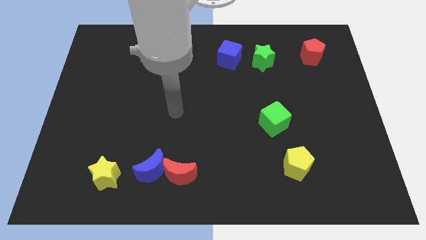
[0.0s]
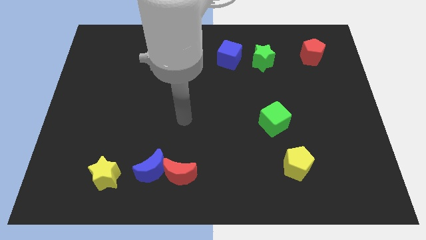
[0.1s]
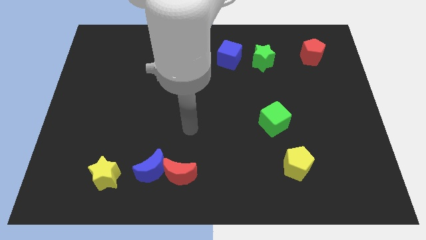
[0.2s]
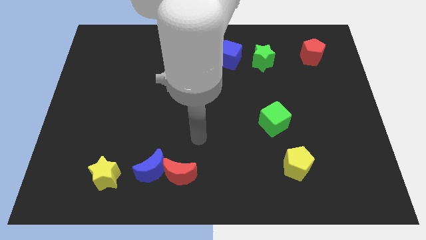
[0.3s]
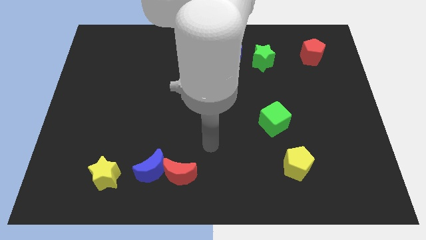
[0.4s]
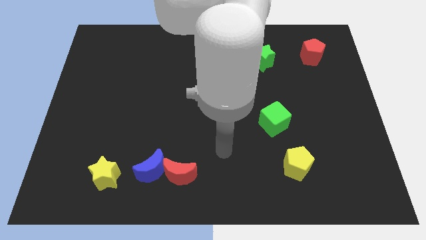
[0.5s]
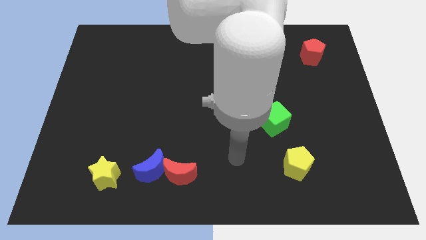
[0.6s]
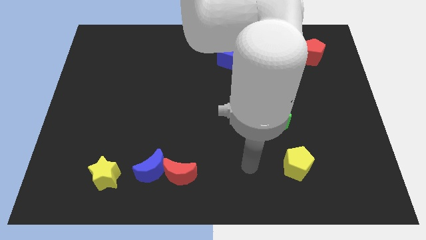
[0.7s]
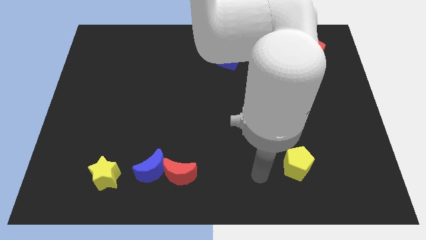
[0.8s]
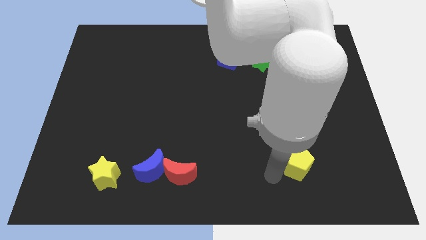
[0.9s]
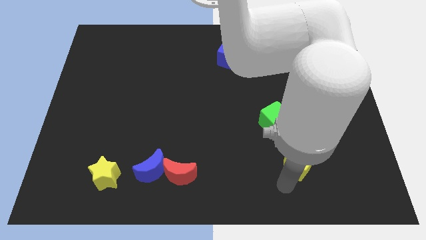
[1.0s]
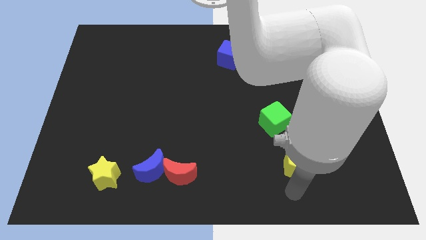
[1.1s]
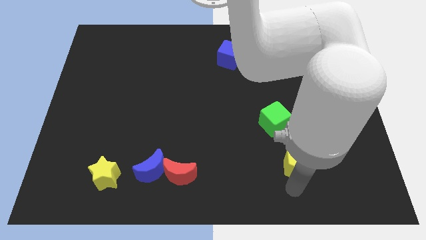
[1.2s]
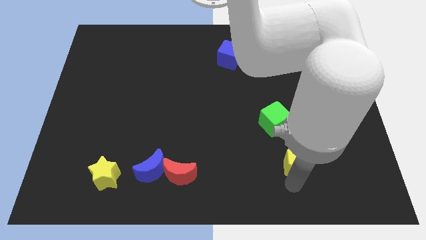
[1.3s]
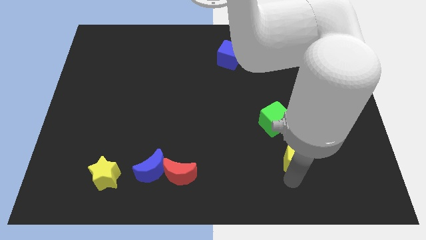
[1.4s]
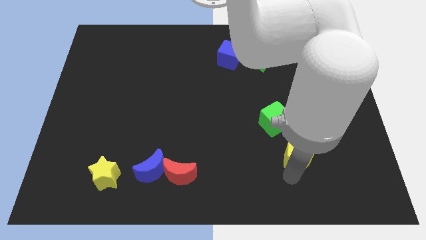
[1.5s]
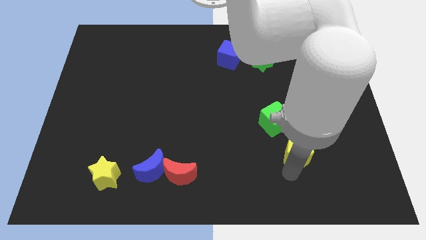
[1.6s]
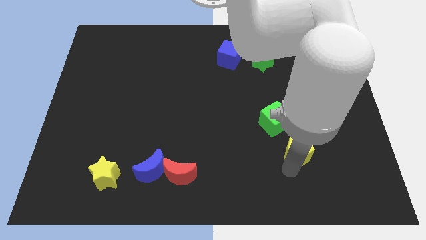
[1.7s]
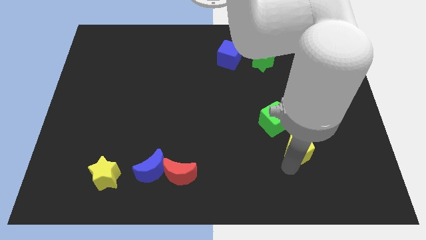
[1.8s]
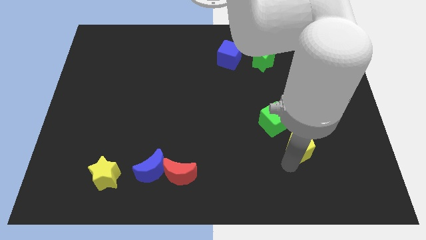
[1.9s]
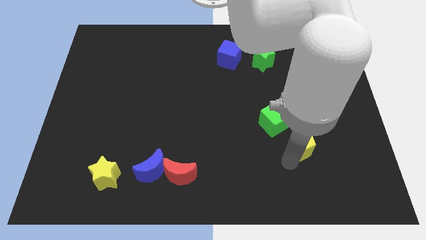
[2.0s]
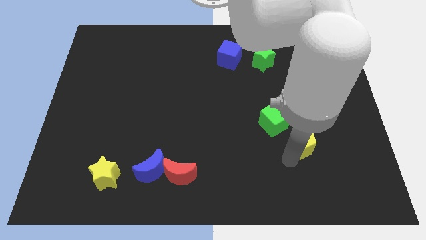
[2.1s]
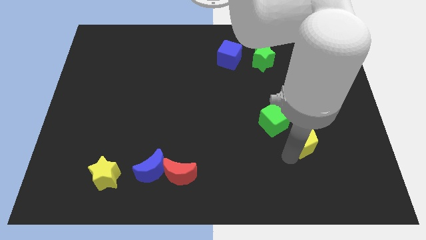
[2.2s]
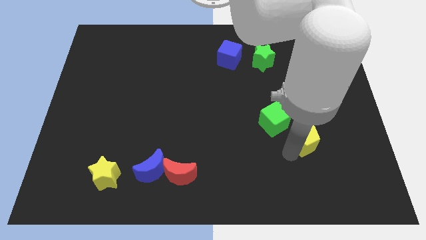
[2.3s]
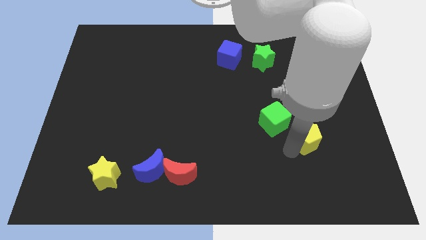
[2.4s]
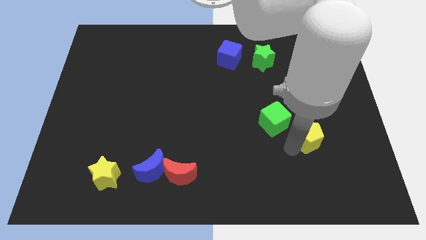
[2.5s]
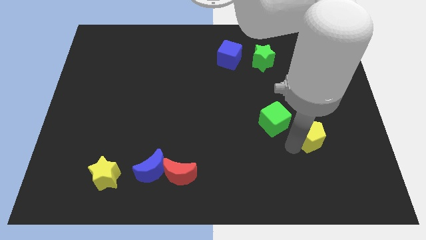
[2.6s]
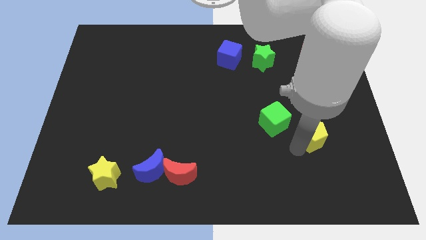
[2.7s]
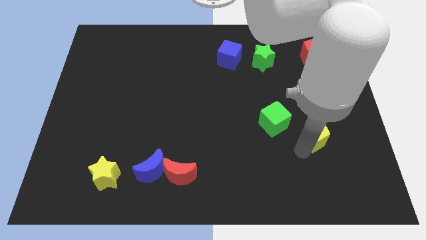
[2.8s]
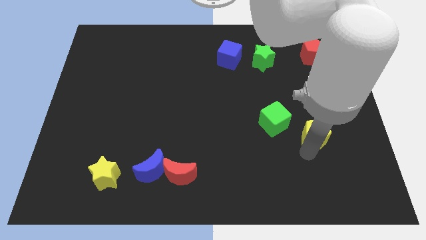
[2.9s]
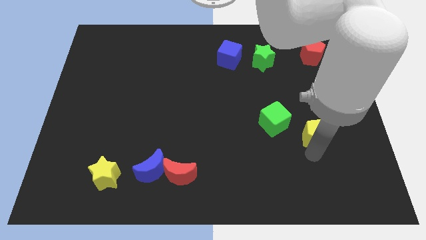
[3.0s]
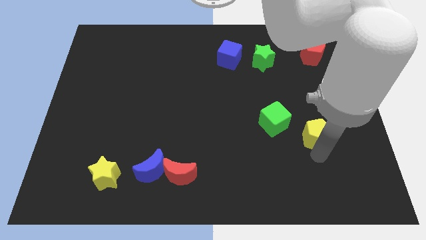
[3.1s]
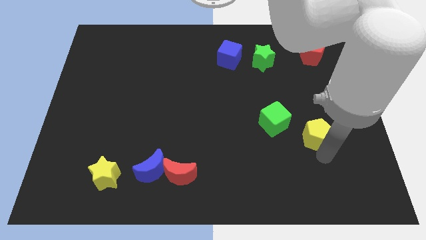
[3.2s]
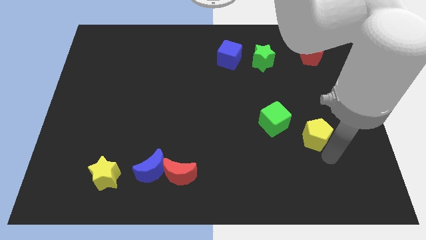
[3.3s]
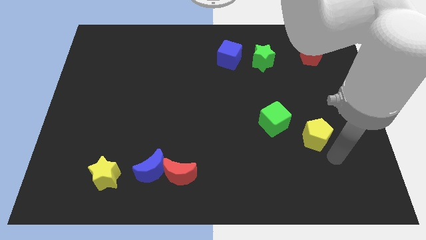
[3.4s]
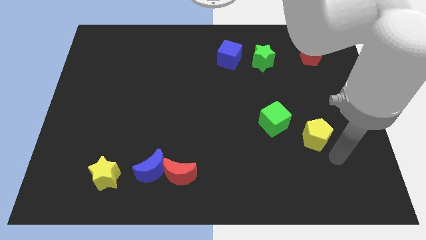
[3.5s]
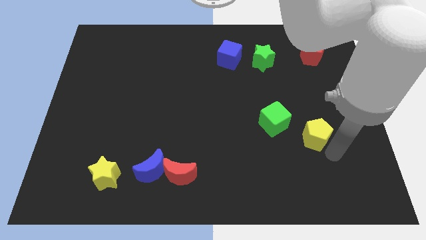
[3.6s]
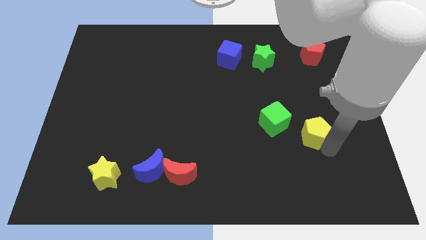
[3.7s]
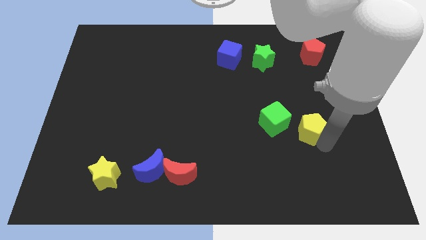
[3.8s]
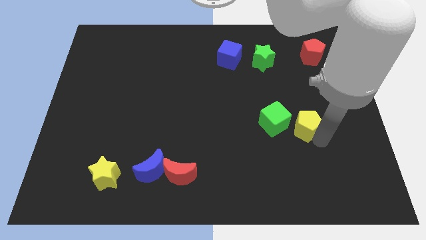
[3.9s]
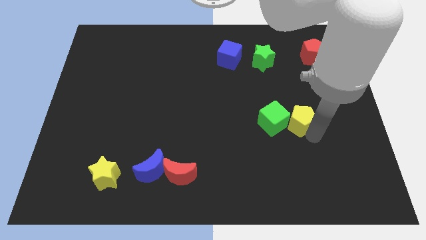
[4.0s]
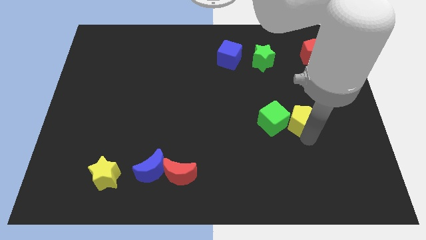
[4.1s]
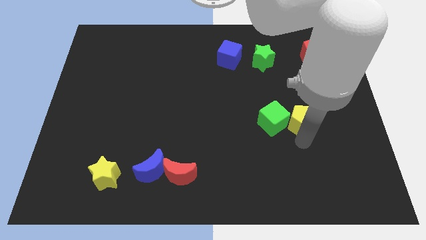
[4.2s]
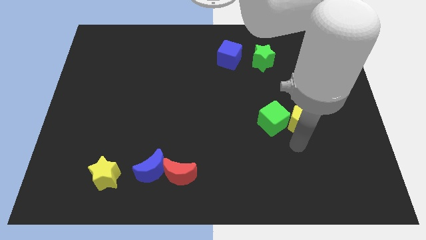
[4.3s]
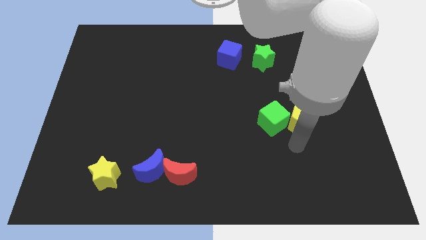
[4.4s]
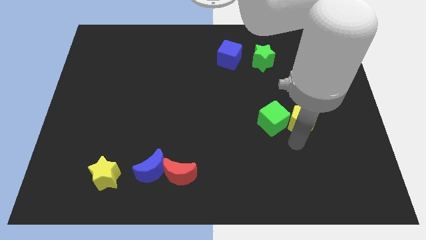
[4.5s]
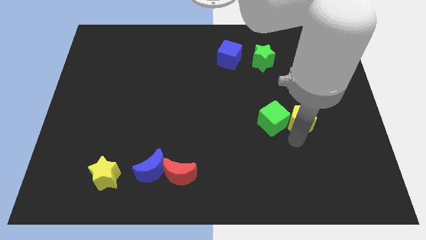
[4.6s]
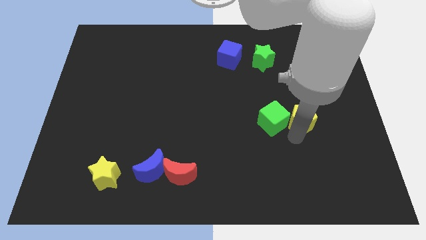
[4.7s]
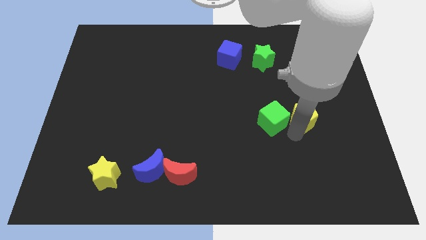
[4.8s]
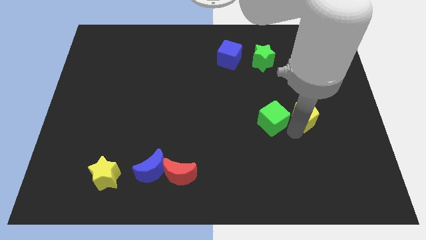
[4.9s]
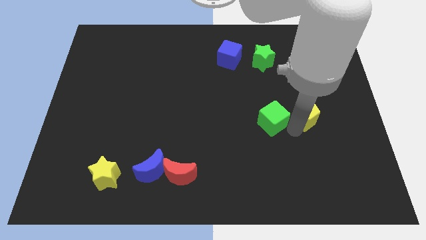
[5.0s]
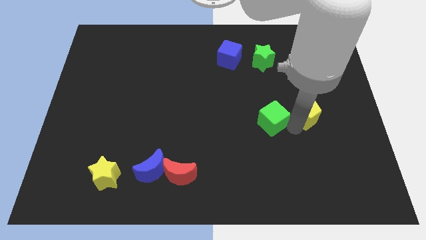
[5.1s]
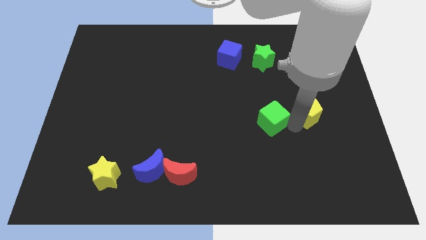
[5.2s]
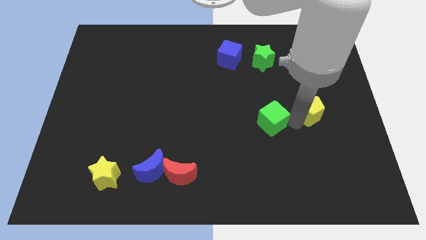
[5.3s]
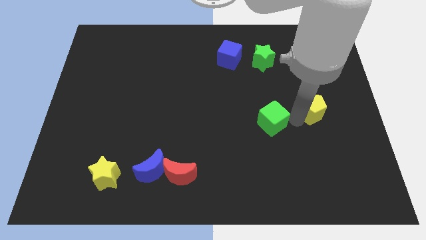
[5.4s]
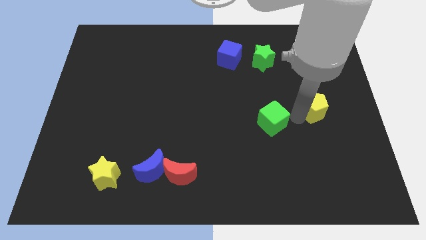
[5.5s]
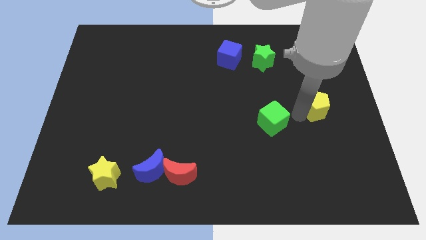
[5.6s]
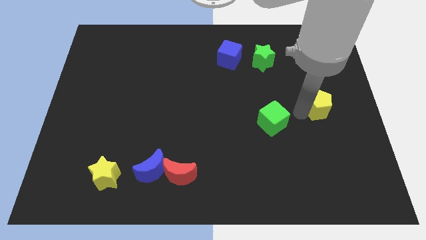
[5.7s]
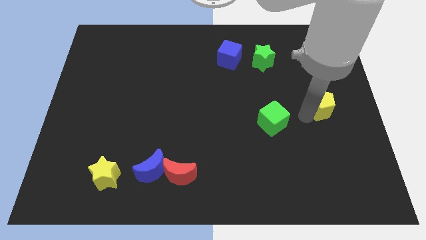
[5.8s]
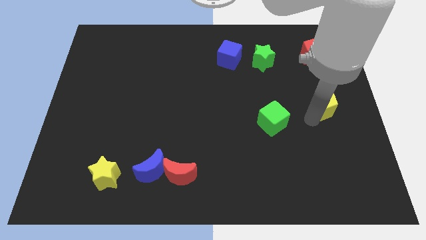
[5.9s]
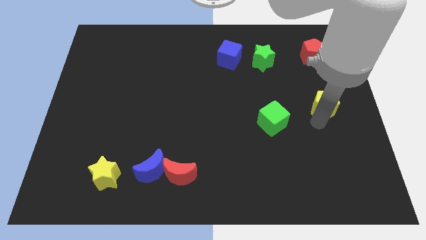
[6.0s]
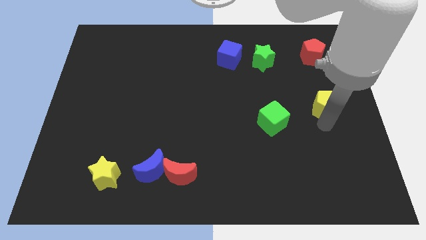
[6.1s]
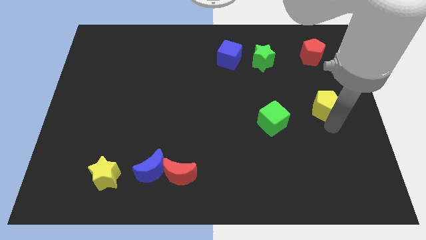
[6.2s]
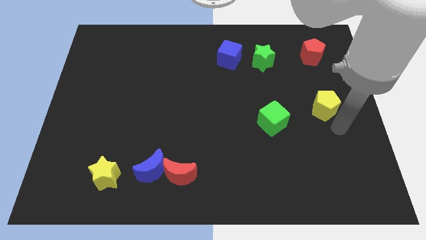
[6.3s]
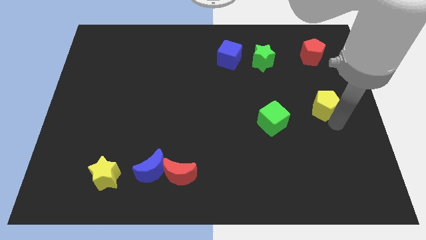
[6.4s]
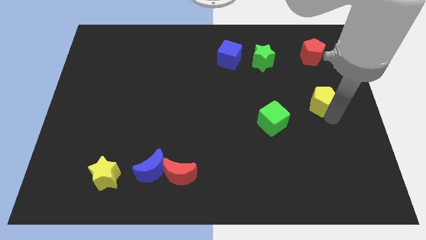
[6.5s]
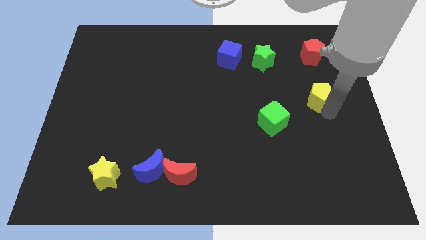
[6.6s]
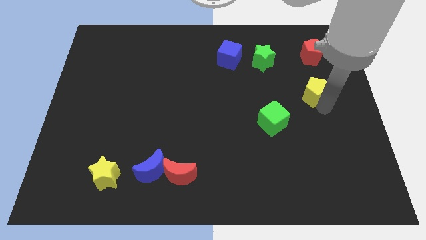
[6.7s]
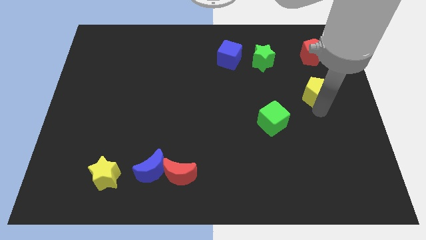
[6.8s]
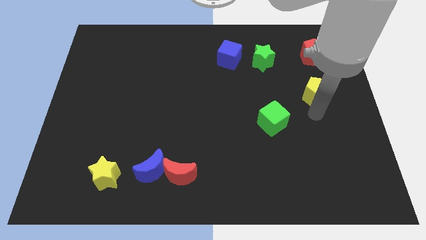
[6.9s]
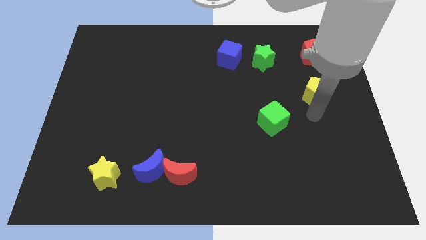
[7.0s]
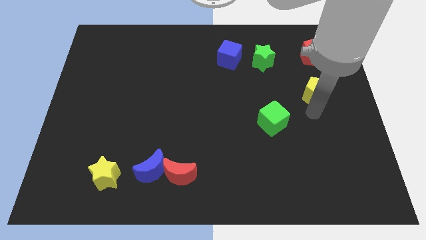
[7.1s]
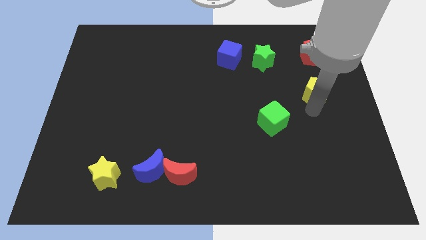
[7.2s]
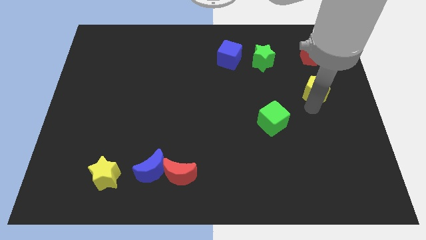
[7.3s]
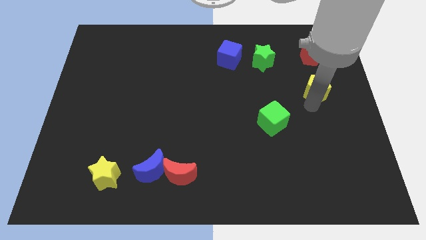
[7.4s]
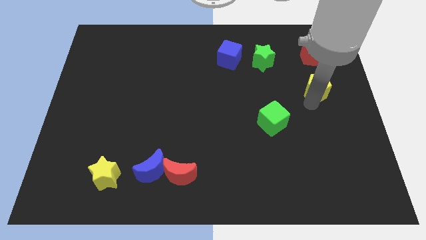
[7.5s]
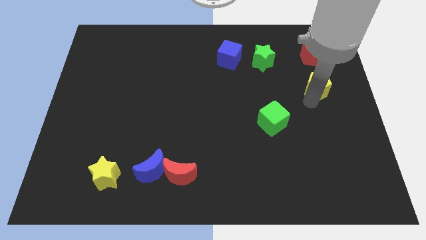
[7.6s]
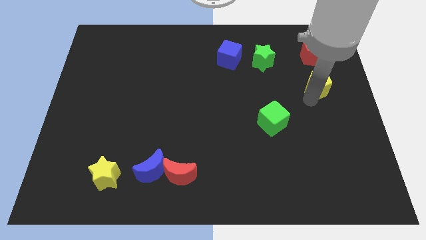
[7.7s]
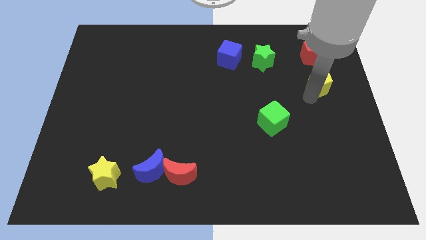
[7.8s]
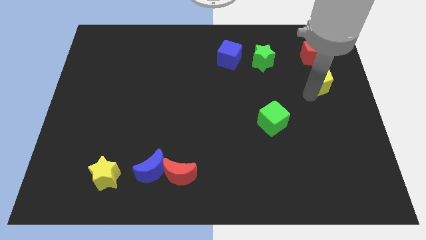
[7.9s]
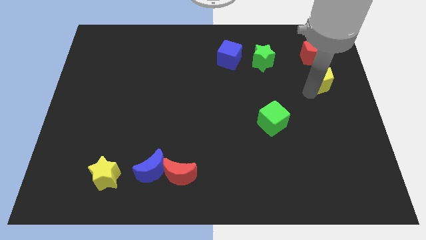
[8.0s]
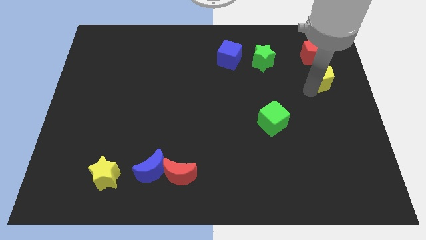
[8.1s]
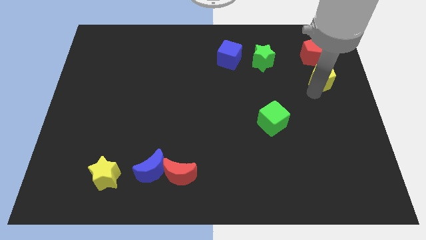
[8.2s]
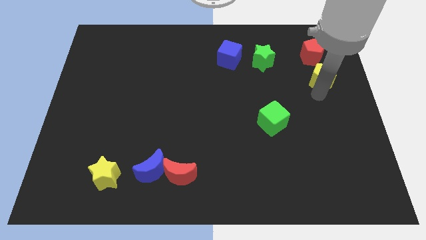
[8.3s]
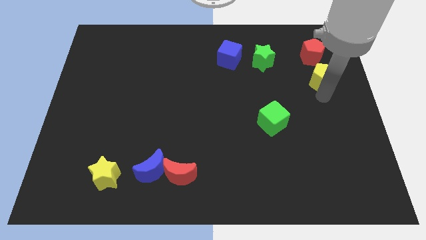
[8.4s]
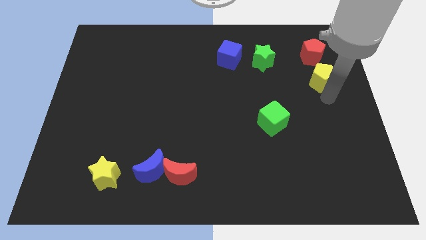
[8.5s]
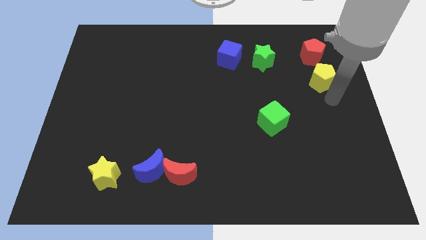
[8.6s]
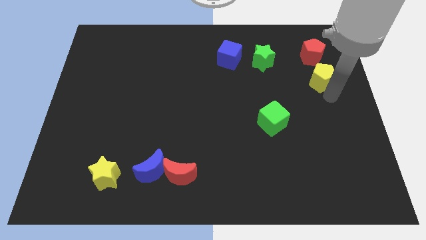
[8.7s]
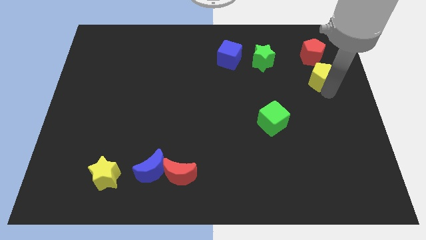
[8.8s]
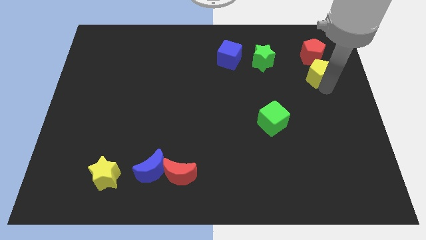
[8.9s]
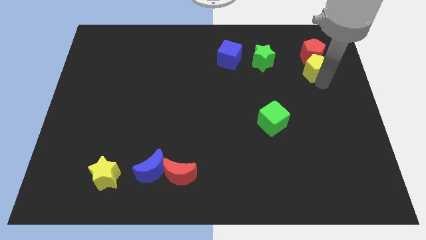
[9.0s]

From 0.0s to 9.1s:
slide the yellow pentagon next to the red pentagon
